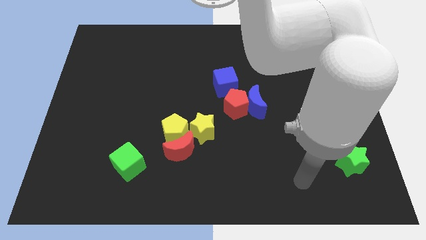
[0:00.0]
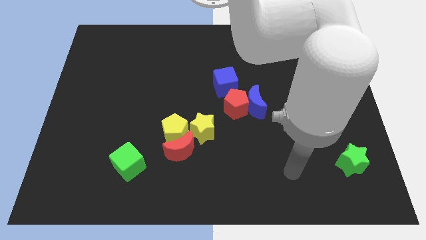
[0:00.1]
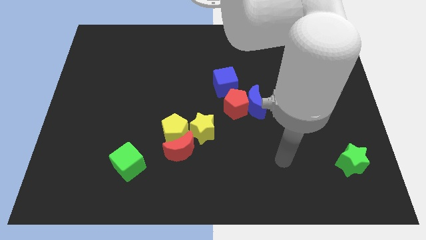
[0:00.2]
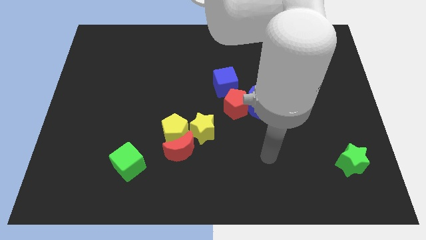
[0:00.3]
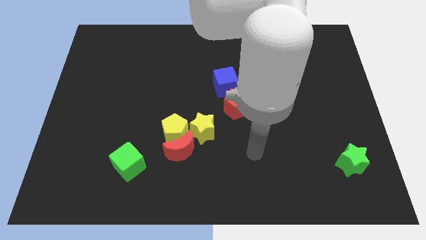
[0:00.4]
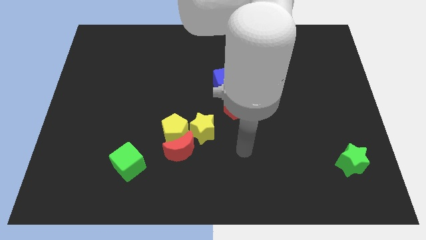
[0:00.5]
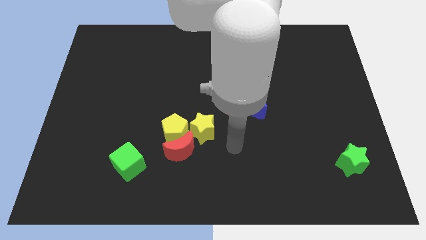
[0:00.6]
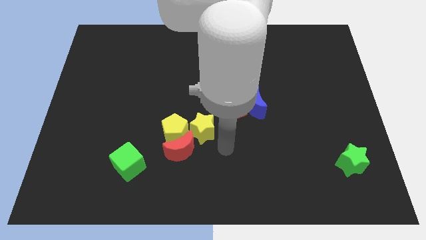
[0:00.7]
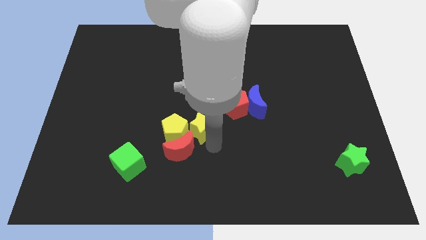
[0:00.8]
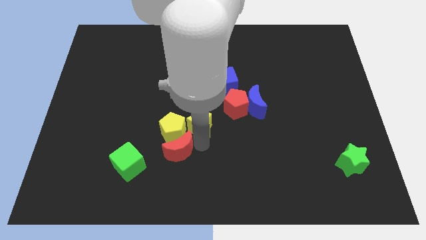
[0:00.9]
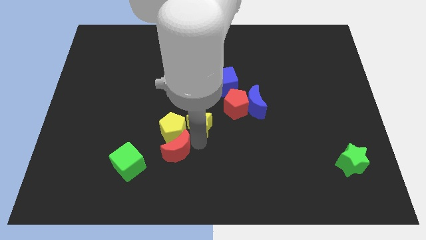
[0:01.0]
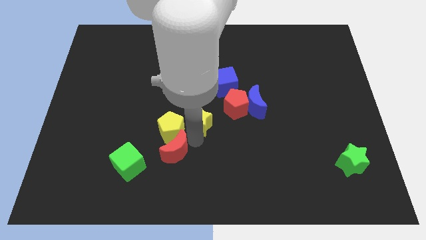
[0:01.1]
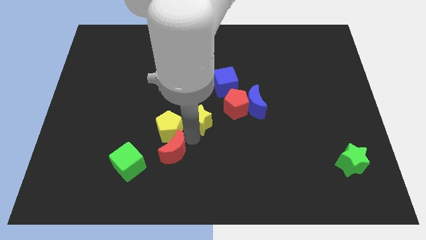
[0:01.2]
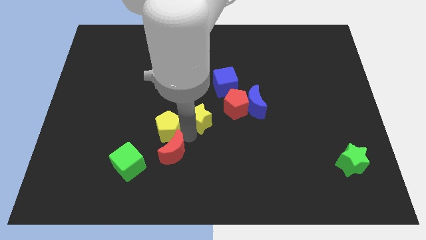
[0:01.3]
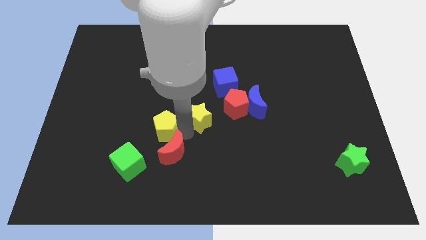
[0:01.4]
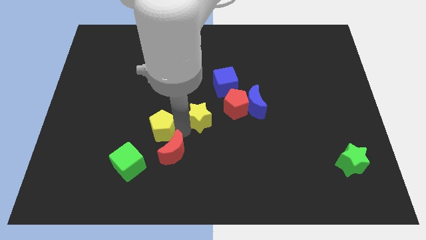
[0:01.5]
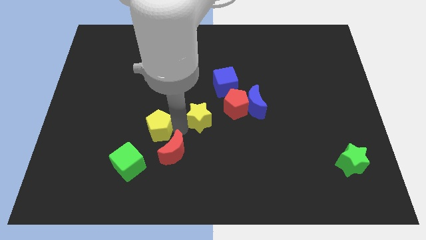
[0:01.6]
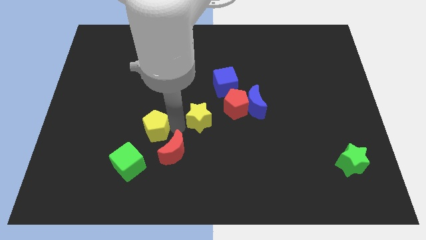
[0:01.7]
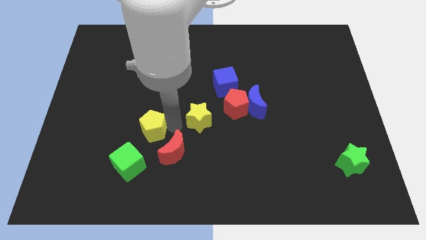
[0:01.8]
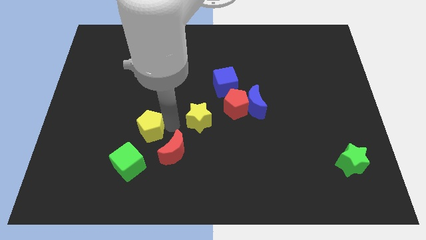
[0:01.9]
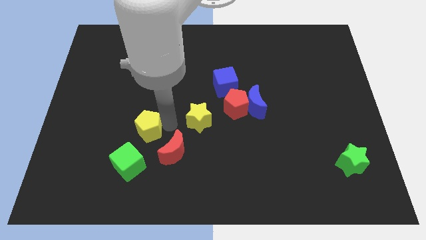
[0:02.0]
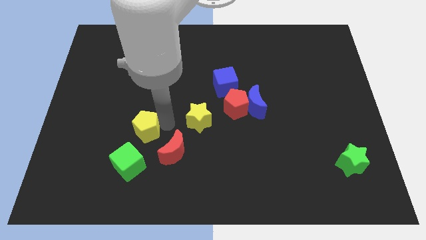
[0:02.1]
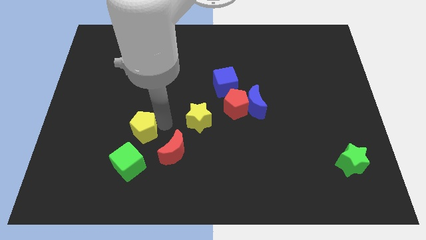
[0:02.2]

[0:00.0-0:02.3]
separate the yellow pentagon from the red moon and yellow star

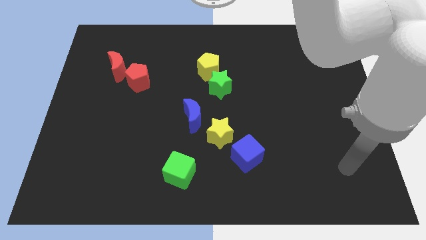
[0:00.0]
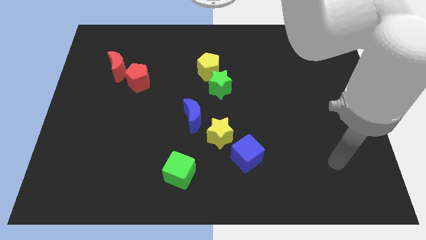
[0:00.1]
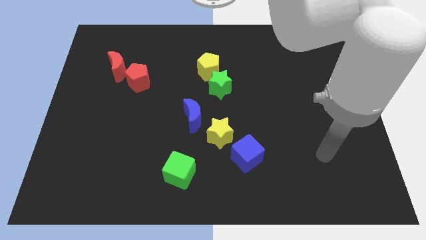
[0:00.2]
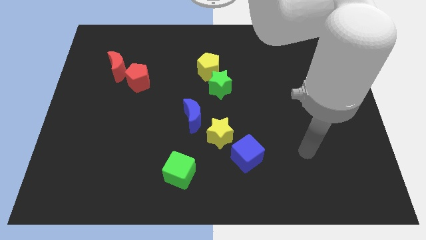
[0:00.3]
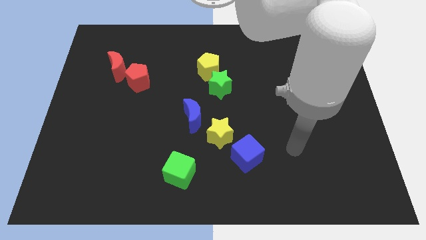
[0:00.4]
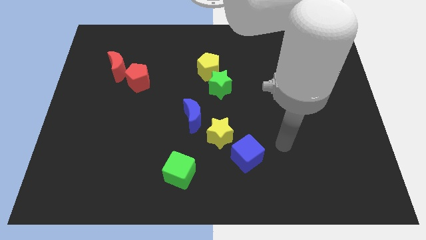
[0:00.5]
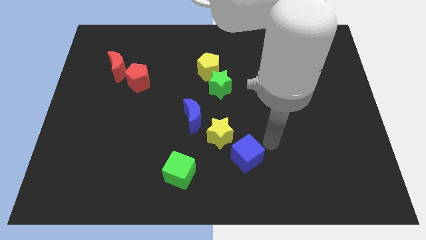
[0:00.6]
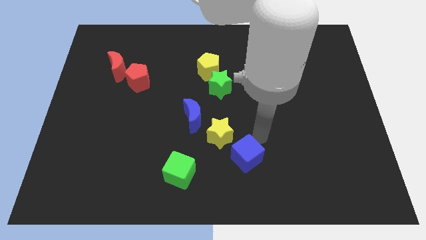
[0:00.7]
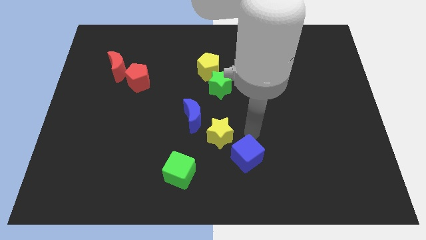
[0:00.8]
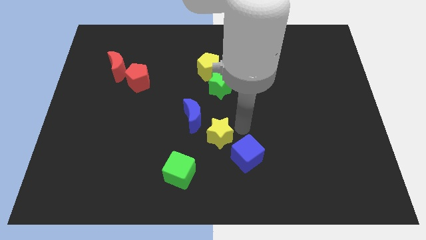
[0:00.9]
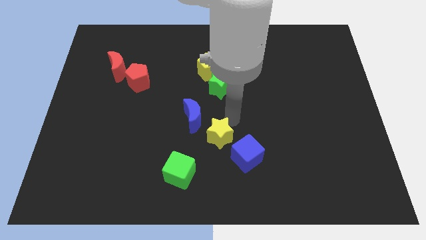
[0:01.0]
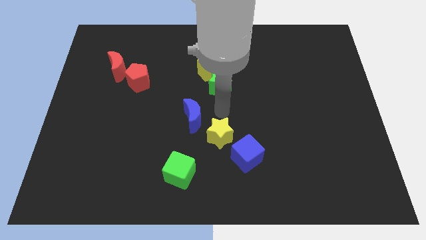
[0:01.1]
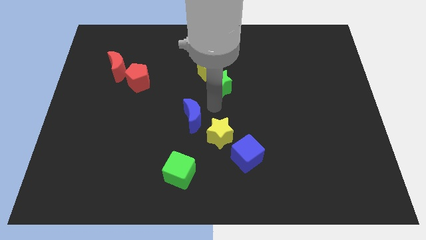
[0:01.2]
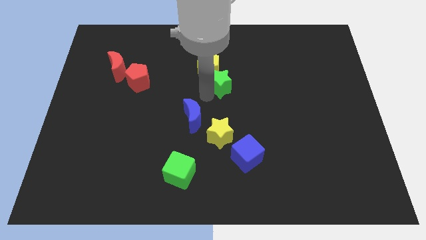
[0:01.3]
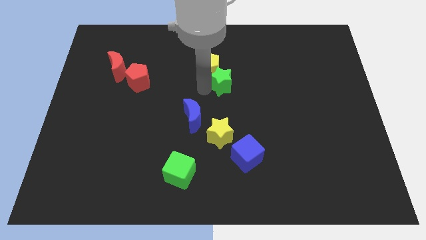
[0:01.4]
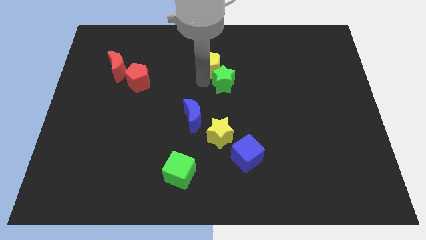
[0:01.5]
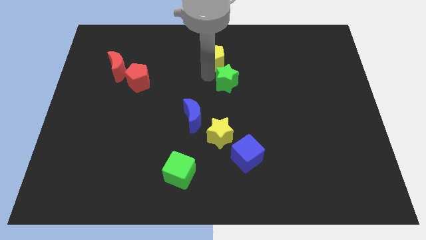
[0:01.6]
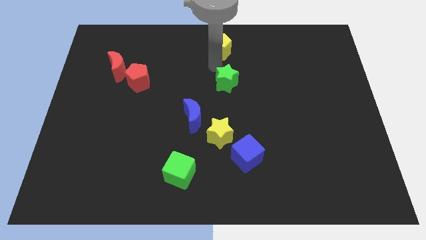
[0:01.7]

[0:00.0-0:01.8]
move the green star away from the yellow pentagon

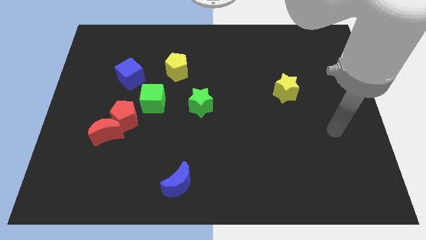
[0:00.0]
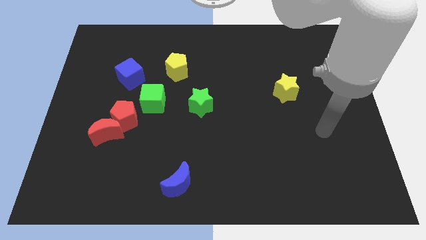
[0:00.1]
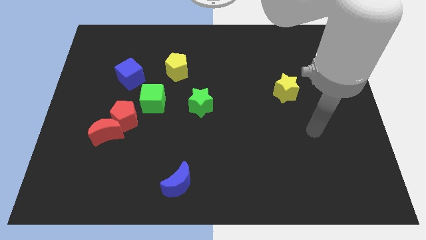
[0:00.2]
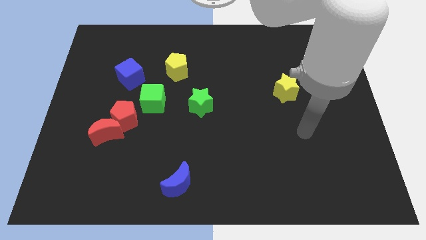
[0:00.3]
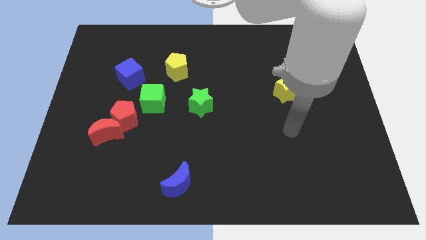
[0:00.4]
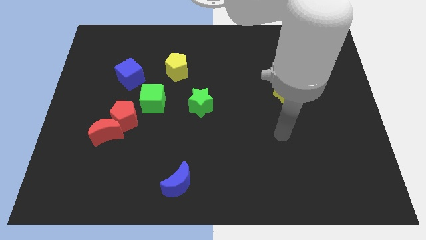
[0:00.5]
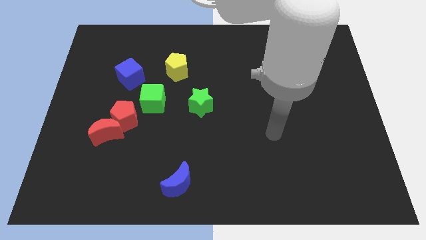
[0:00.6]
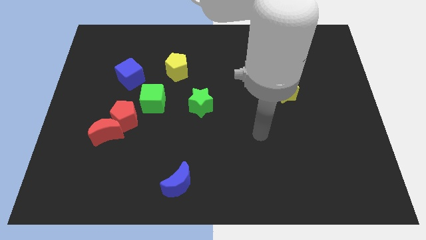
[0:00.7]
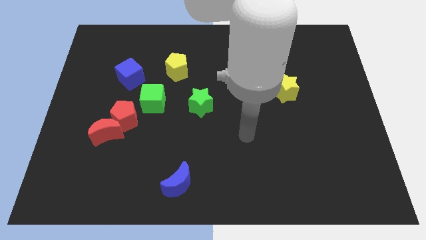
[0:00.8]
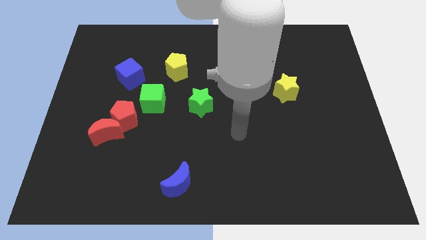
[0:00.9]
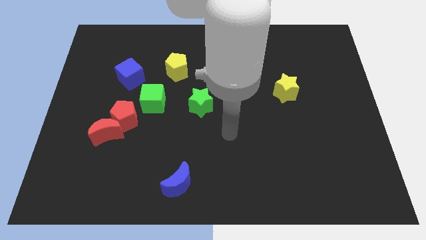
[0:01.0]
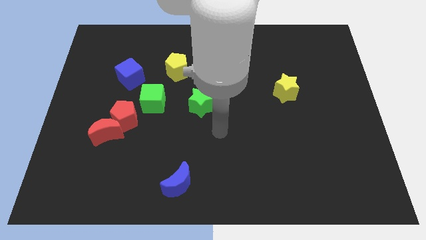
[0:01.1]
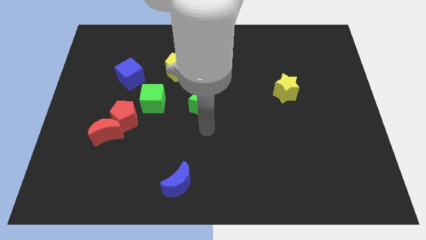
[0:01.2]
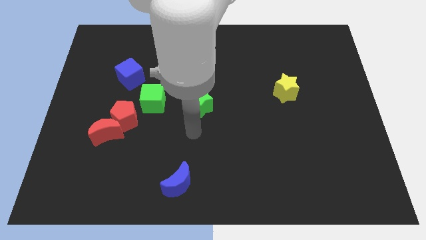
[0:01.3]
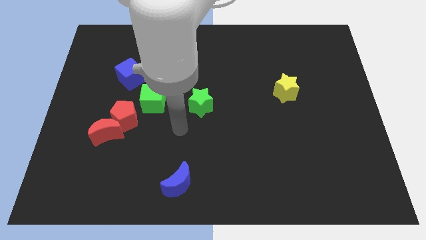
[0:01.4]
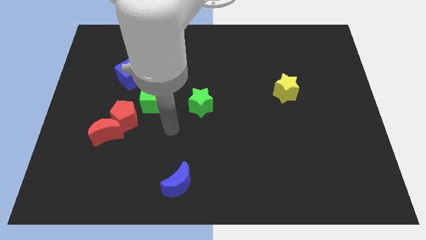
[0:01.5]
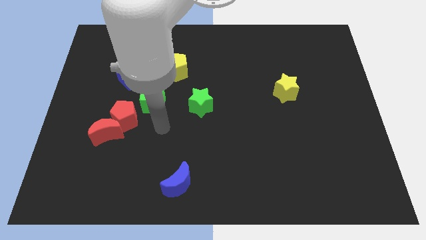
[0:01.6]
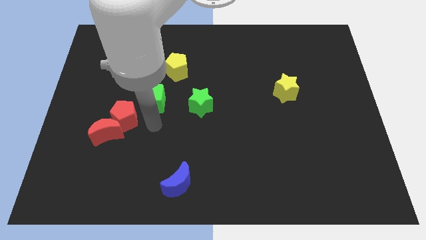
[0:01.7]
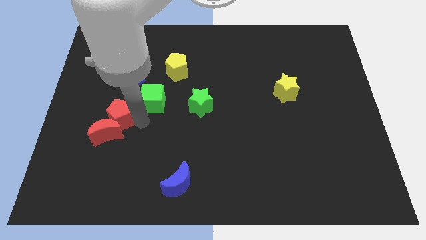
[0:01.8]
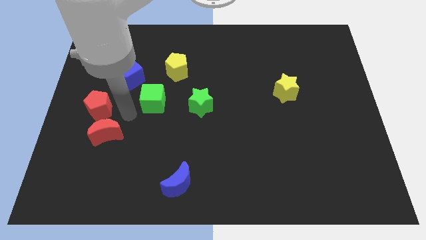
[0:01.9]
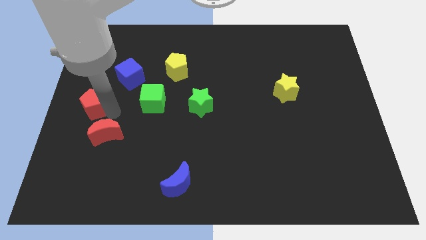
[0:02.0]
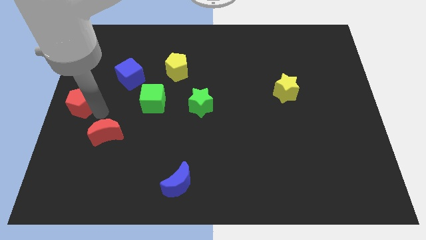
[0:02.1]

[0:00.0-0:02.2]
pull the red moon apart from the red pentagon

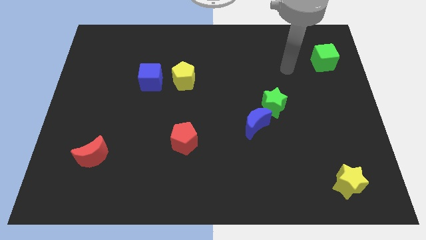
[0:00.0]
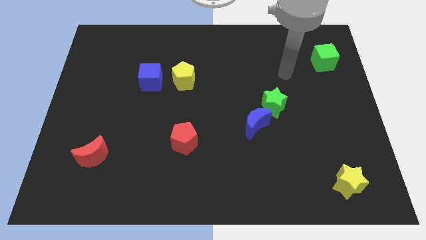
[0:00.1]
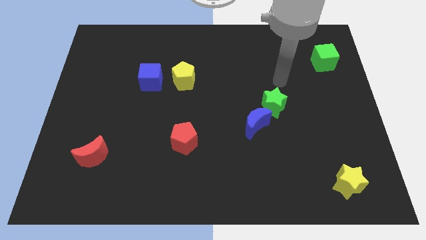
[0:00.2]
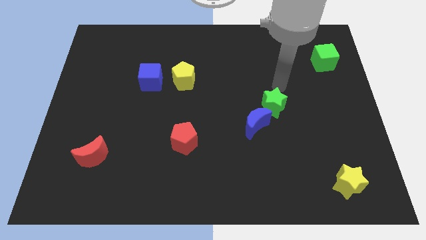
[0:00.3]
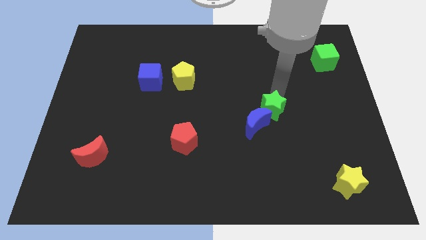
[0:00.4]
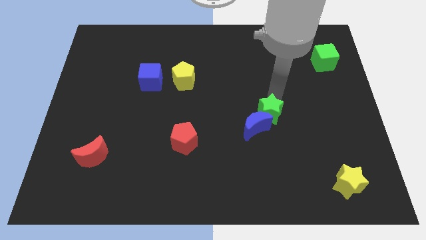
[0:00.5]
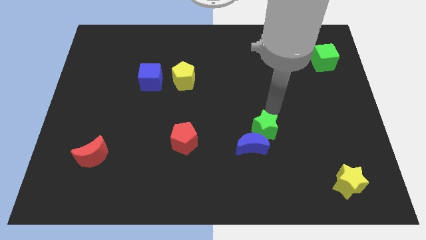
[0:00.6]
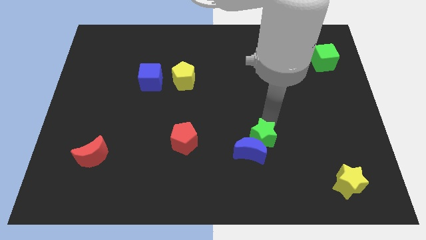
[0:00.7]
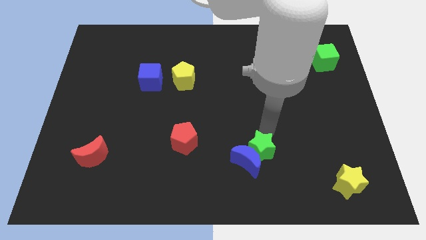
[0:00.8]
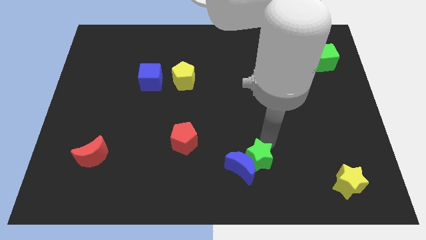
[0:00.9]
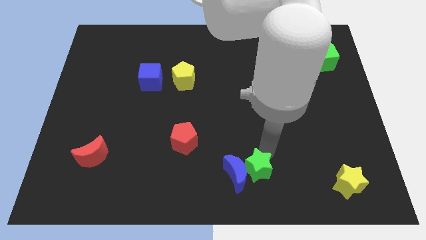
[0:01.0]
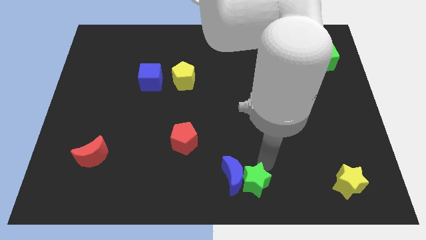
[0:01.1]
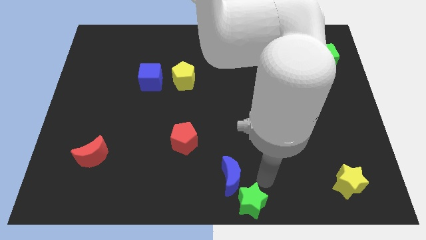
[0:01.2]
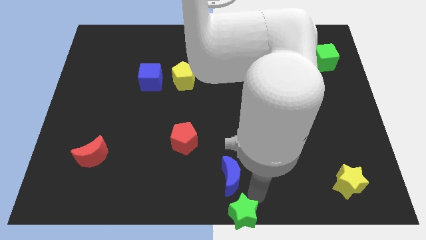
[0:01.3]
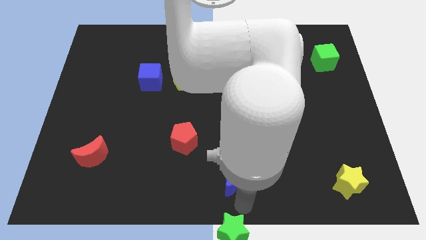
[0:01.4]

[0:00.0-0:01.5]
separate the blue moon from the green star

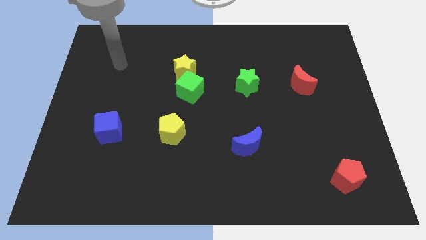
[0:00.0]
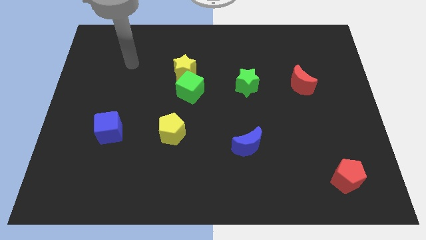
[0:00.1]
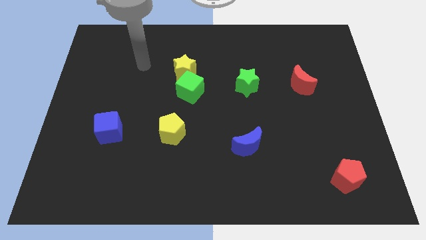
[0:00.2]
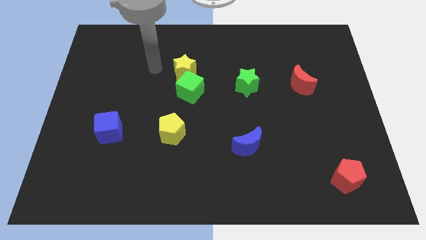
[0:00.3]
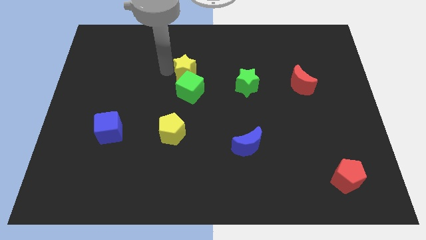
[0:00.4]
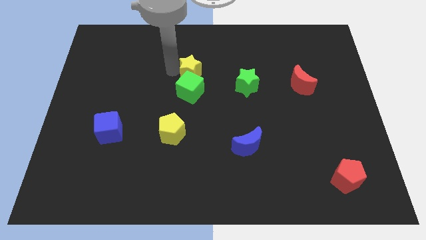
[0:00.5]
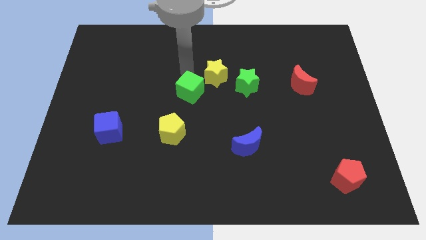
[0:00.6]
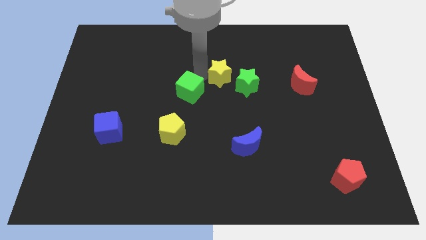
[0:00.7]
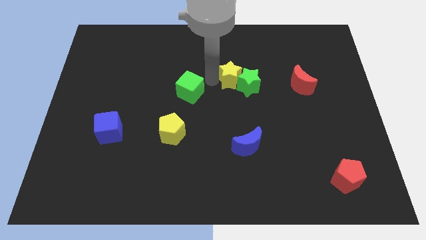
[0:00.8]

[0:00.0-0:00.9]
pull the green cube apart from the yellow star

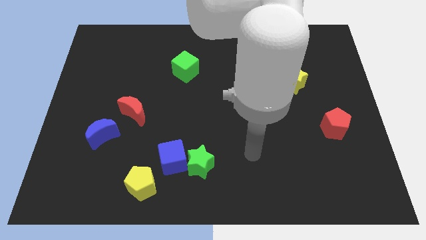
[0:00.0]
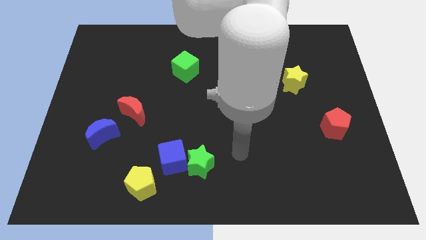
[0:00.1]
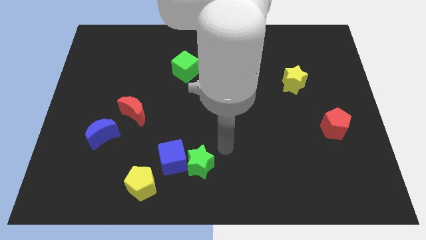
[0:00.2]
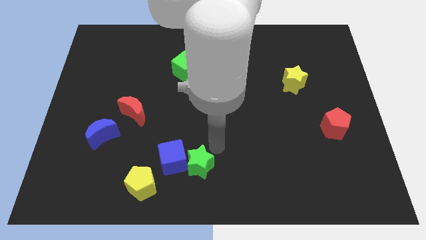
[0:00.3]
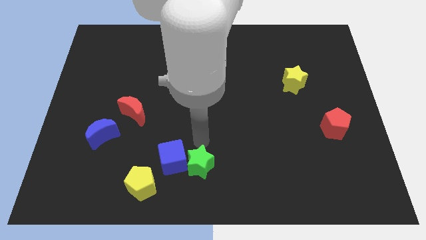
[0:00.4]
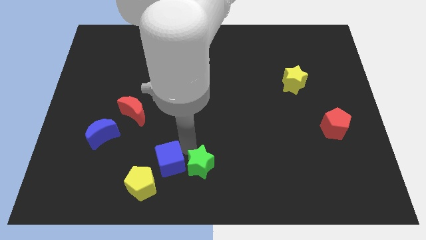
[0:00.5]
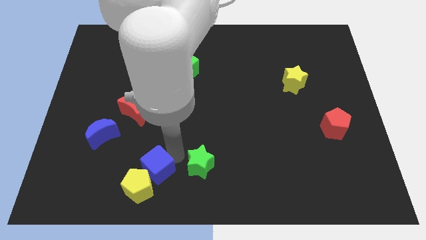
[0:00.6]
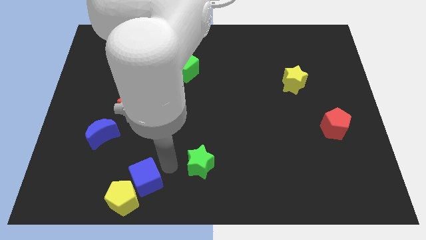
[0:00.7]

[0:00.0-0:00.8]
move the green star away from the blue cube
